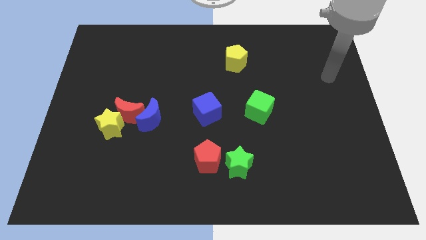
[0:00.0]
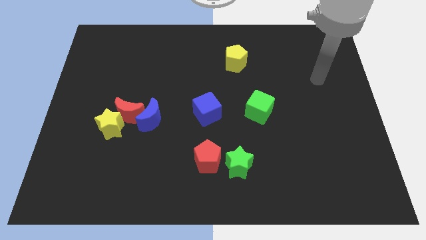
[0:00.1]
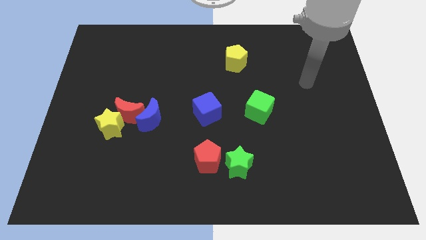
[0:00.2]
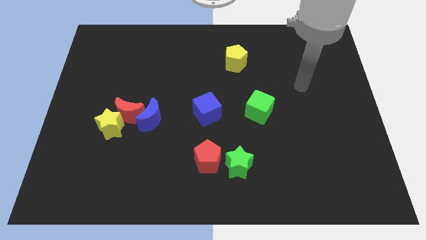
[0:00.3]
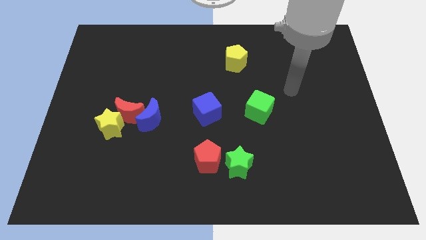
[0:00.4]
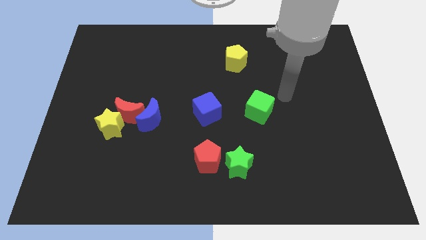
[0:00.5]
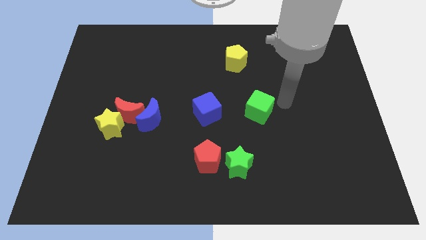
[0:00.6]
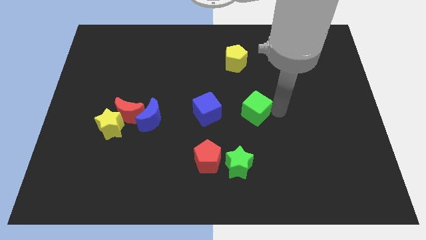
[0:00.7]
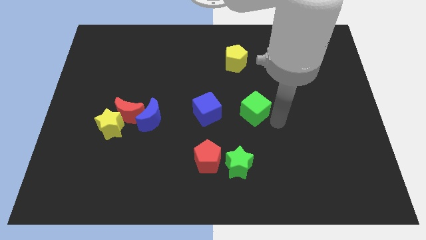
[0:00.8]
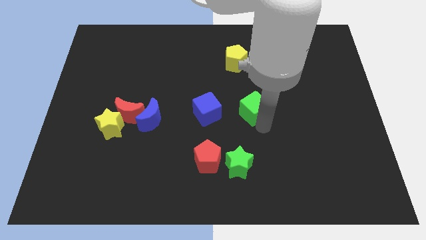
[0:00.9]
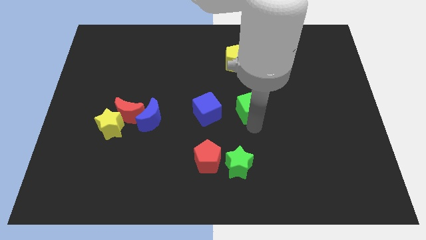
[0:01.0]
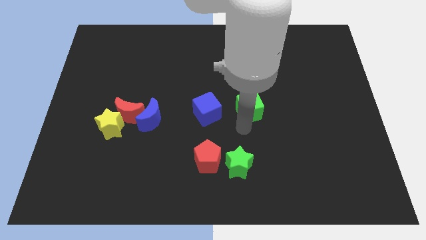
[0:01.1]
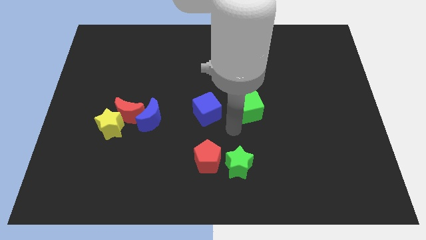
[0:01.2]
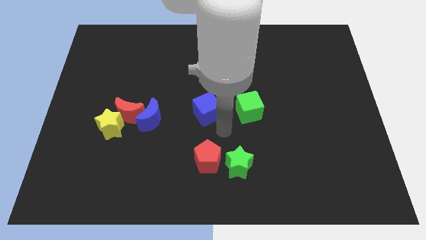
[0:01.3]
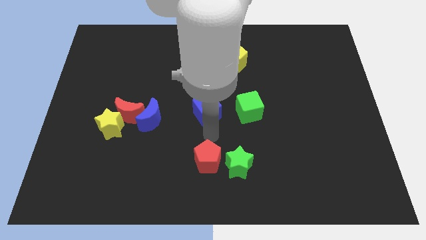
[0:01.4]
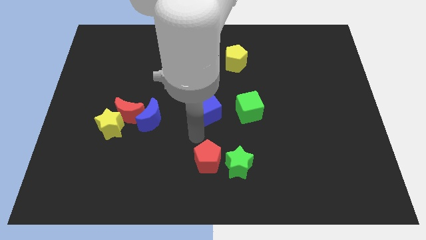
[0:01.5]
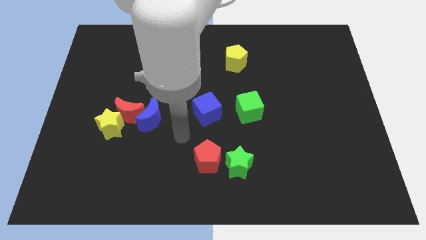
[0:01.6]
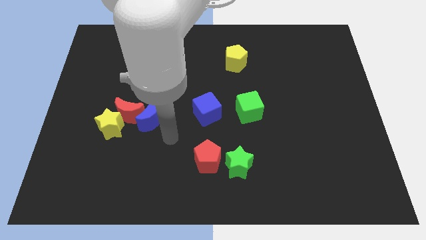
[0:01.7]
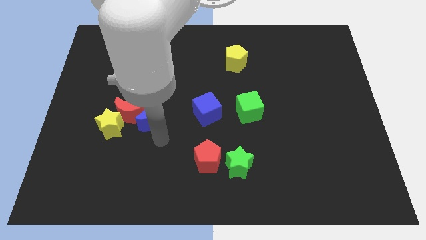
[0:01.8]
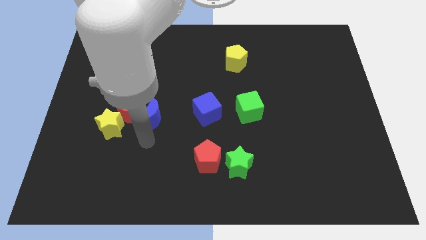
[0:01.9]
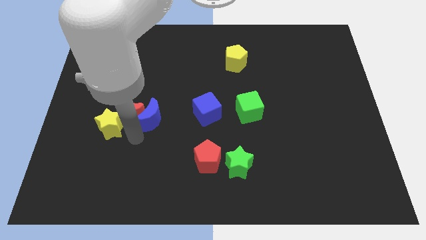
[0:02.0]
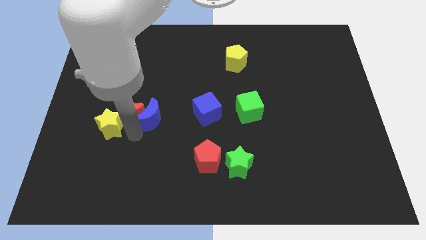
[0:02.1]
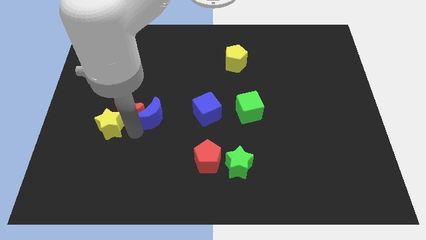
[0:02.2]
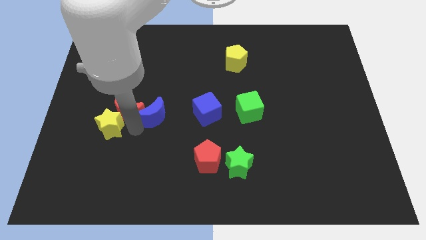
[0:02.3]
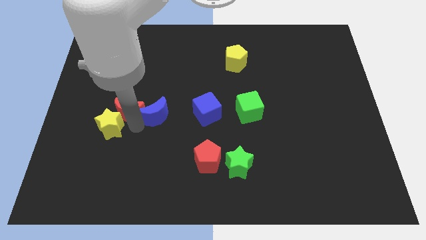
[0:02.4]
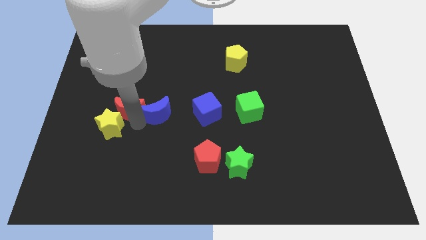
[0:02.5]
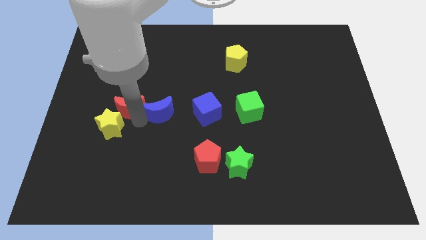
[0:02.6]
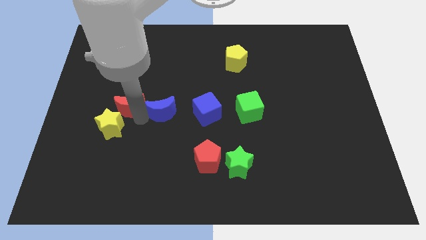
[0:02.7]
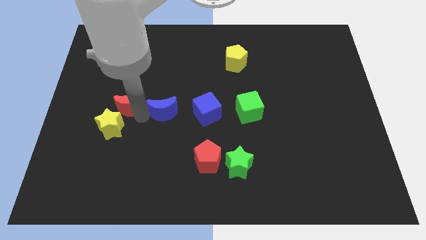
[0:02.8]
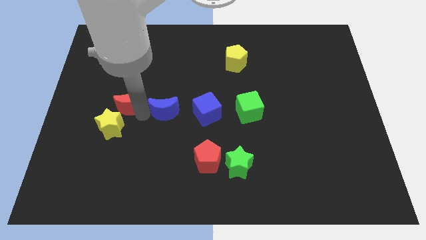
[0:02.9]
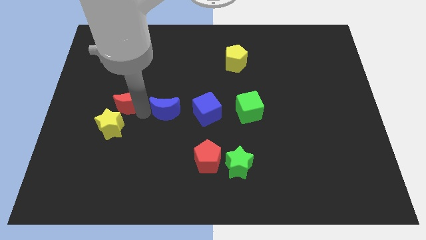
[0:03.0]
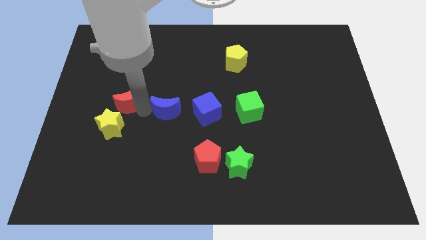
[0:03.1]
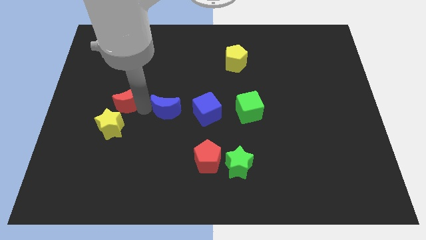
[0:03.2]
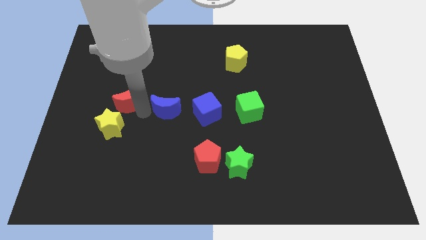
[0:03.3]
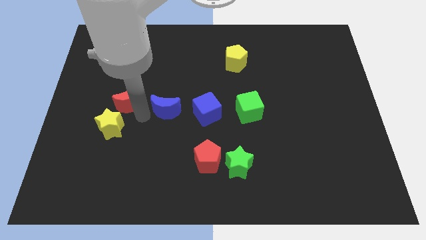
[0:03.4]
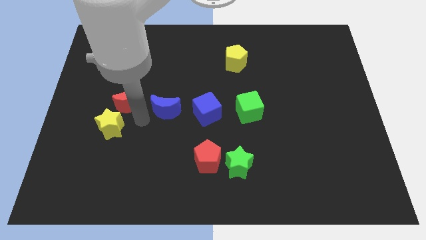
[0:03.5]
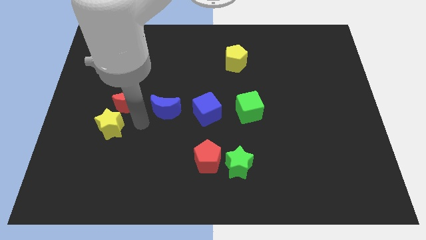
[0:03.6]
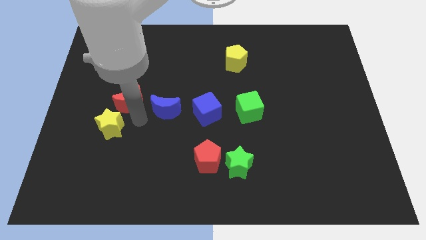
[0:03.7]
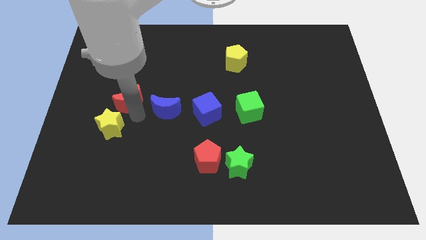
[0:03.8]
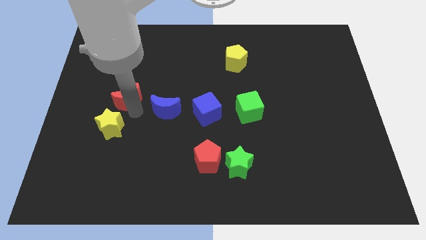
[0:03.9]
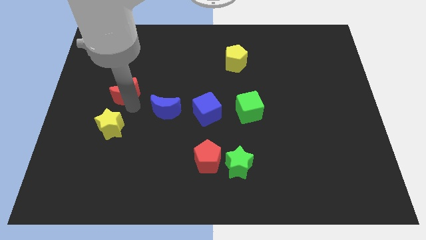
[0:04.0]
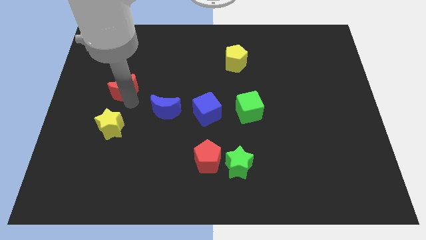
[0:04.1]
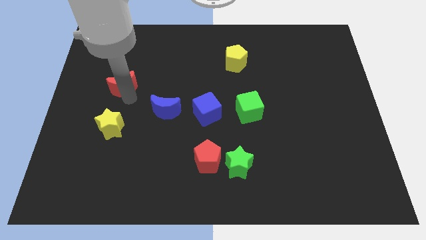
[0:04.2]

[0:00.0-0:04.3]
separate the red moon from the yellow star and blue moon

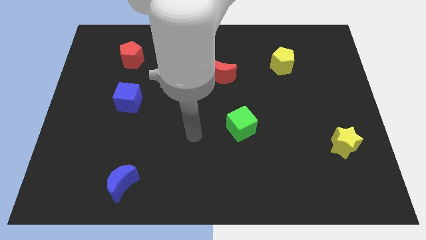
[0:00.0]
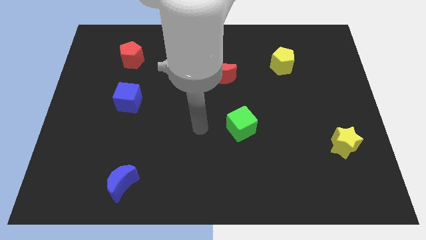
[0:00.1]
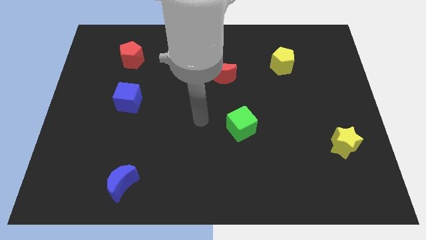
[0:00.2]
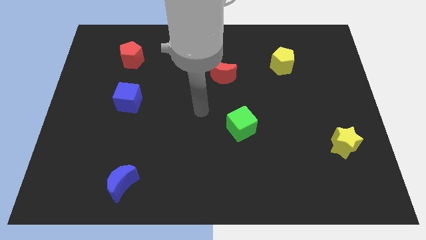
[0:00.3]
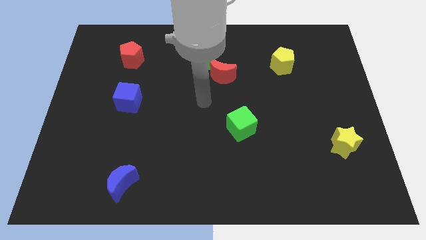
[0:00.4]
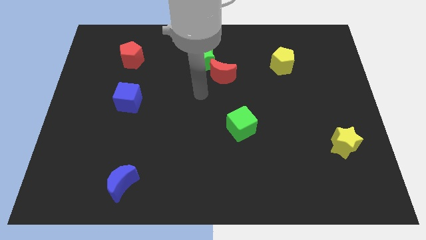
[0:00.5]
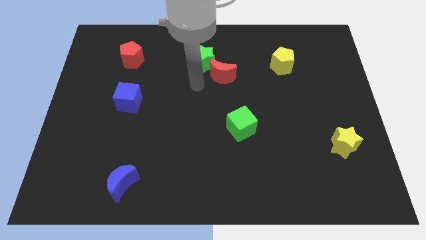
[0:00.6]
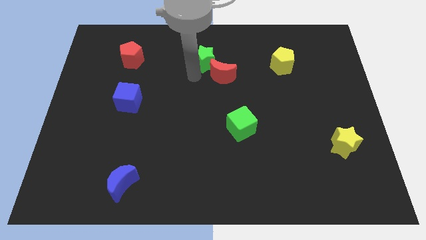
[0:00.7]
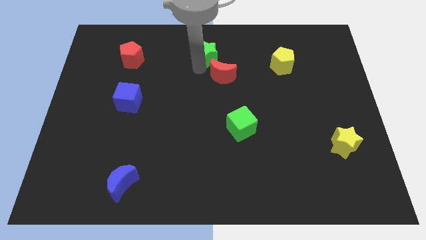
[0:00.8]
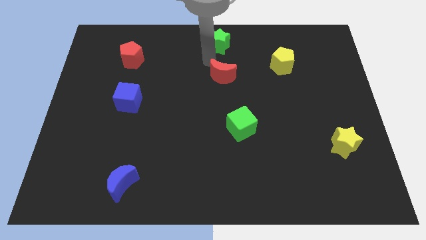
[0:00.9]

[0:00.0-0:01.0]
separate the red moon from the green star

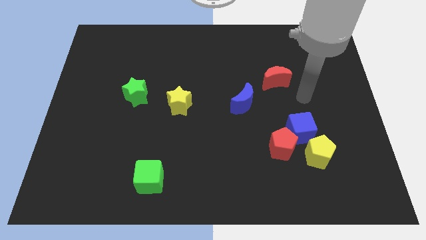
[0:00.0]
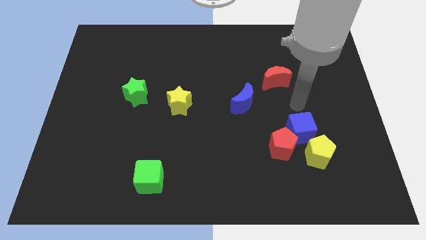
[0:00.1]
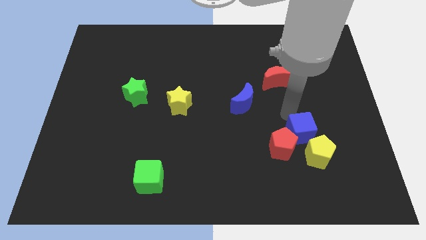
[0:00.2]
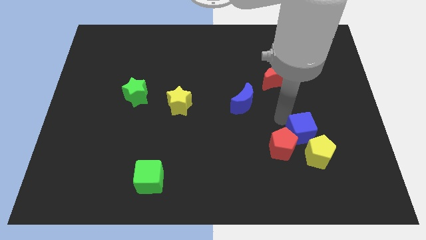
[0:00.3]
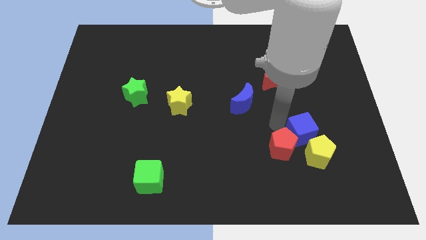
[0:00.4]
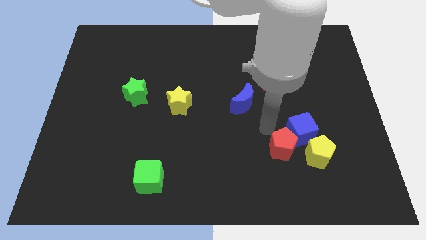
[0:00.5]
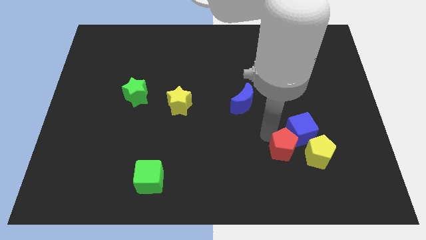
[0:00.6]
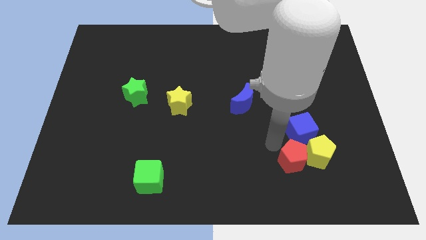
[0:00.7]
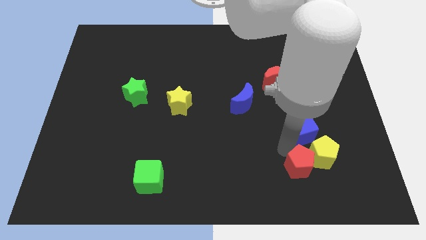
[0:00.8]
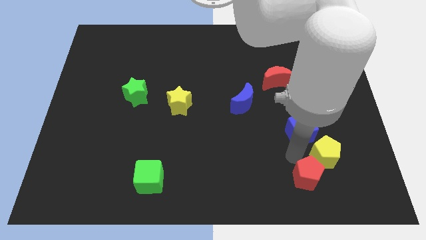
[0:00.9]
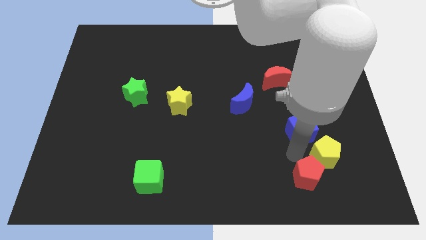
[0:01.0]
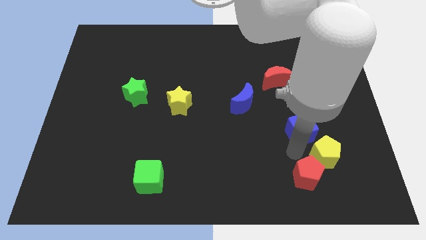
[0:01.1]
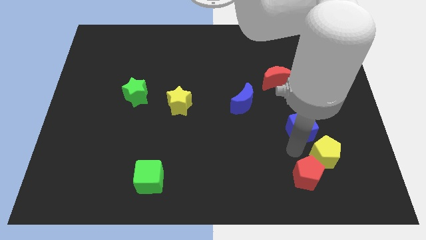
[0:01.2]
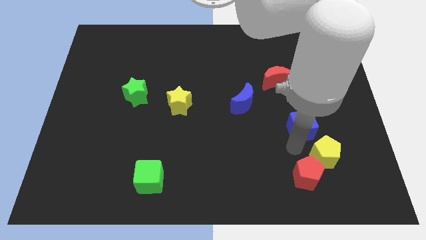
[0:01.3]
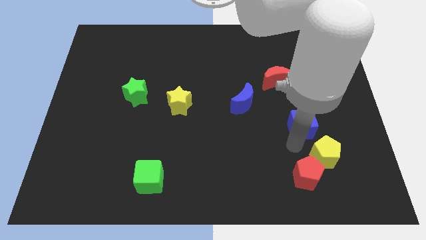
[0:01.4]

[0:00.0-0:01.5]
move the blue cube away from the red pentagon and yellow pentagon

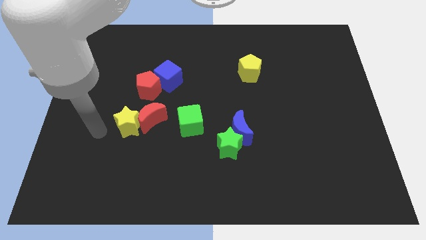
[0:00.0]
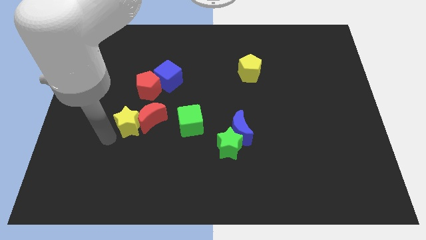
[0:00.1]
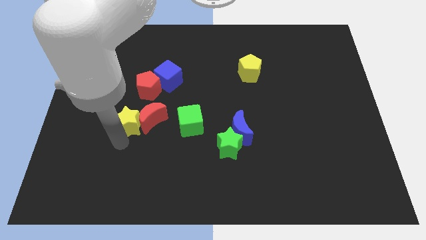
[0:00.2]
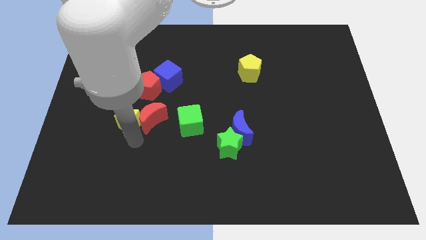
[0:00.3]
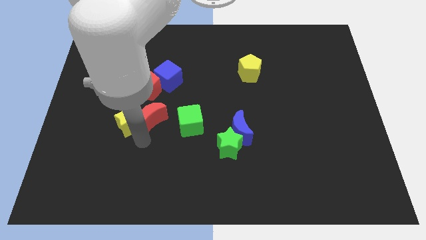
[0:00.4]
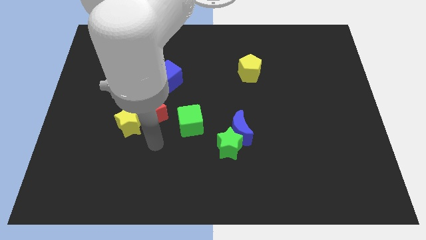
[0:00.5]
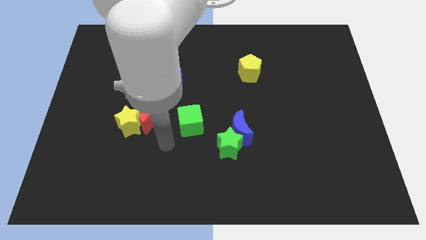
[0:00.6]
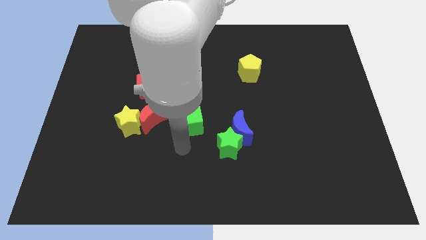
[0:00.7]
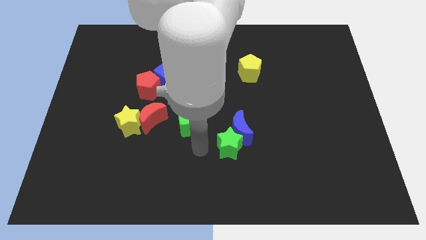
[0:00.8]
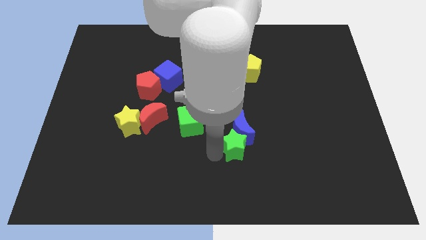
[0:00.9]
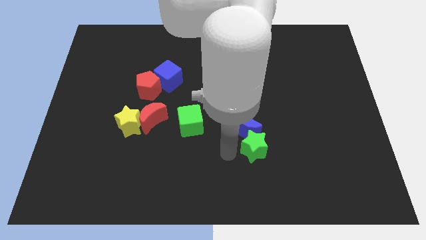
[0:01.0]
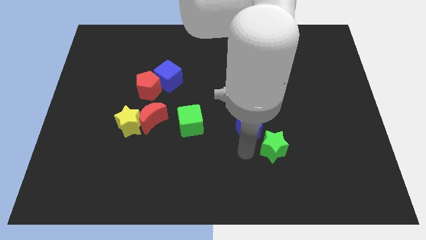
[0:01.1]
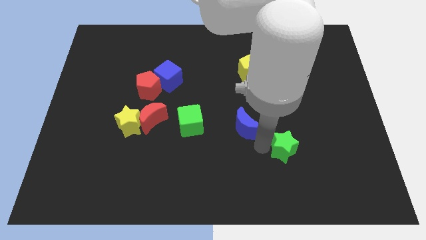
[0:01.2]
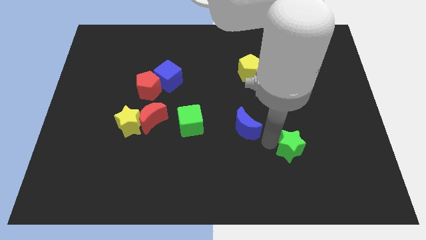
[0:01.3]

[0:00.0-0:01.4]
move the blue moon away from the green star

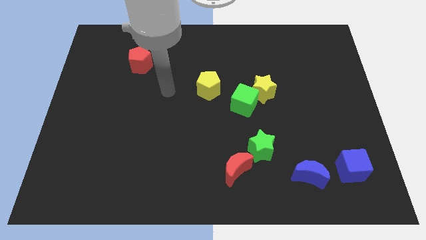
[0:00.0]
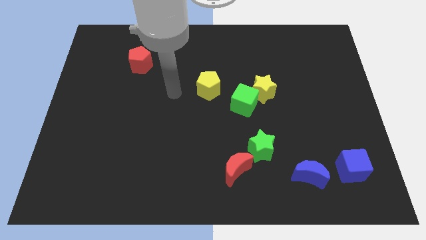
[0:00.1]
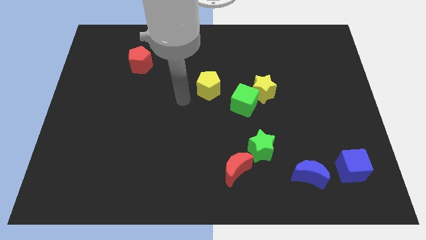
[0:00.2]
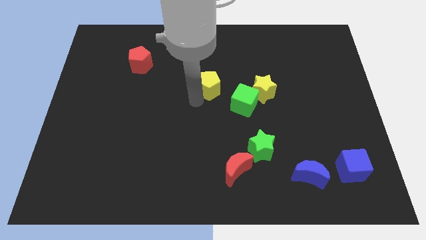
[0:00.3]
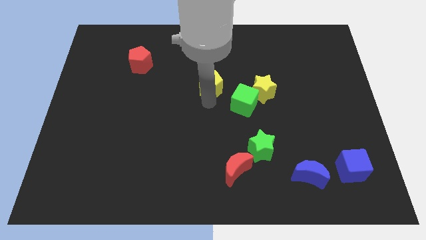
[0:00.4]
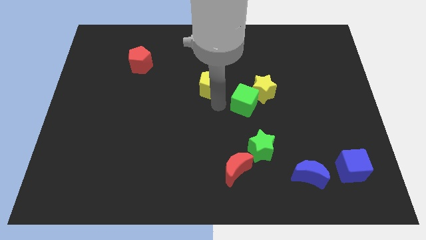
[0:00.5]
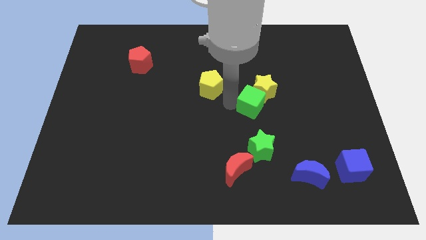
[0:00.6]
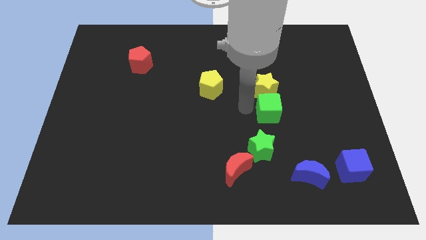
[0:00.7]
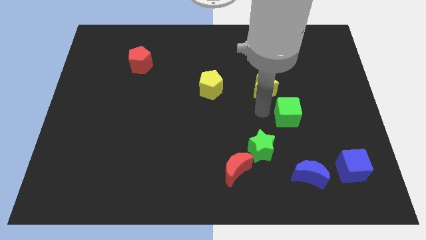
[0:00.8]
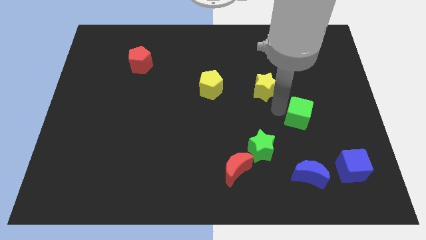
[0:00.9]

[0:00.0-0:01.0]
separate the yellow star from the green cube
